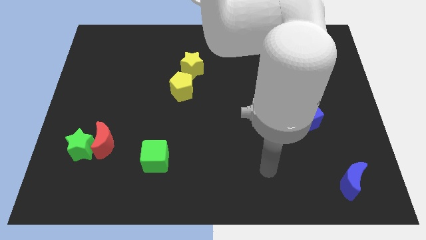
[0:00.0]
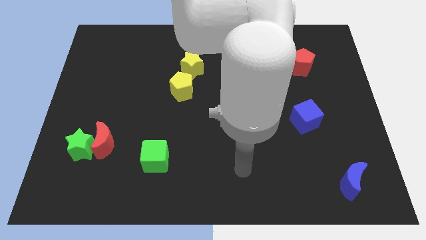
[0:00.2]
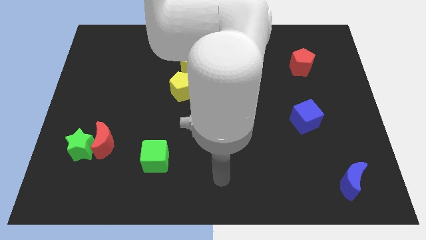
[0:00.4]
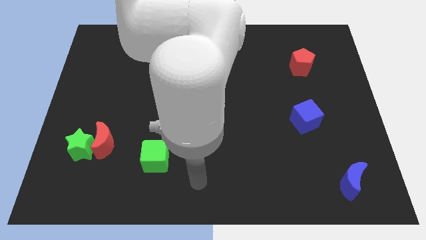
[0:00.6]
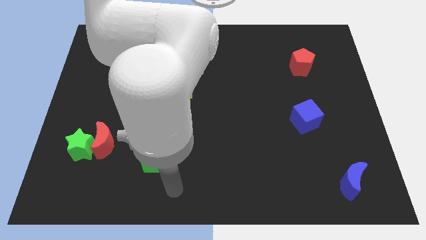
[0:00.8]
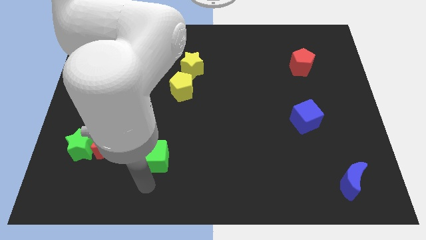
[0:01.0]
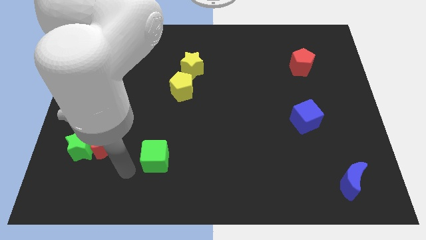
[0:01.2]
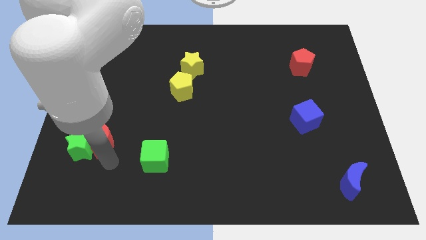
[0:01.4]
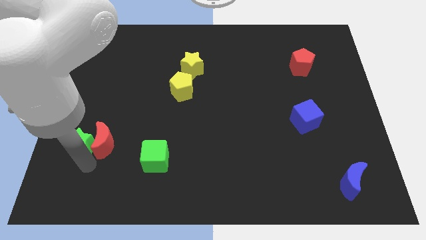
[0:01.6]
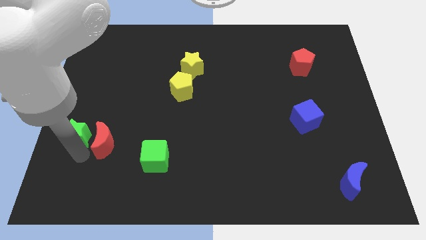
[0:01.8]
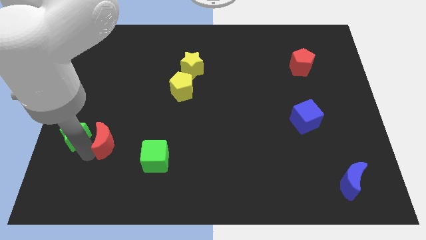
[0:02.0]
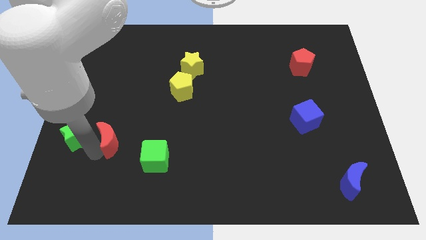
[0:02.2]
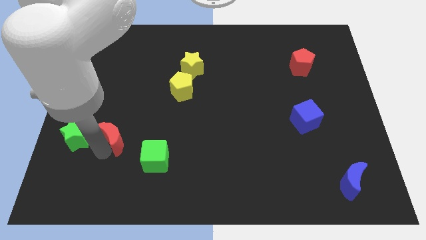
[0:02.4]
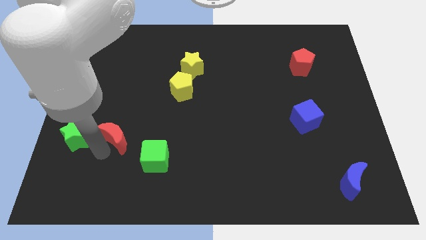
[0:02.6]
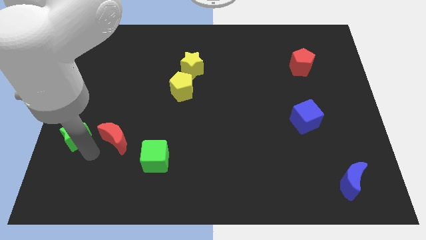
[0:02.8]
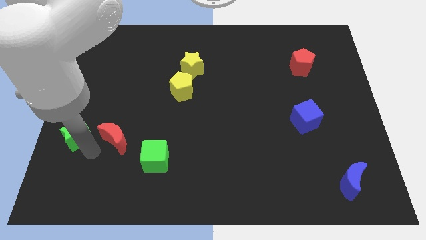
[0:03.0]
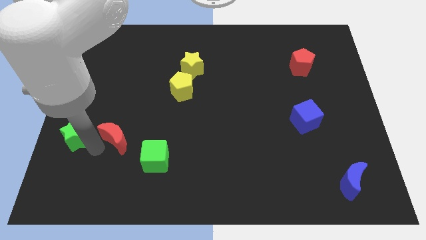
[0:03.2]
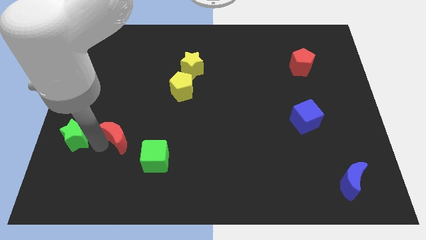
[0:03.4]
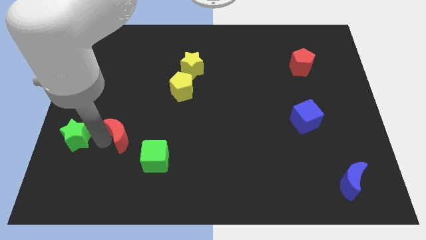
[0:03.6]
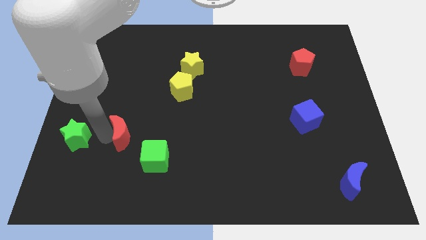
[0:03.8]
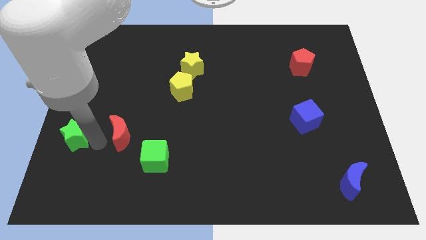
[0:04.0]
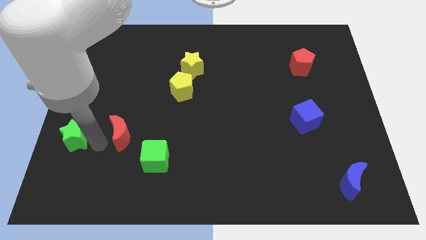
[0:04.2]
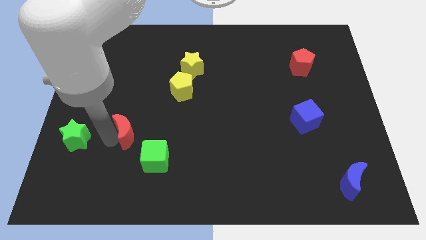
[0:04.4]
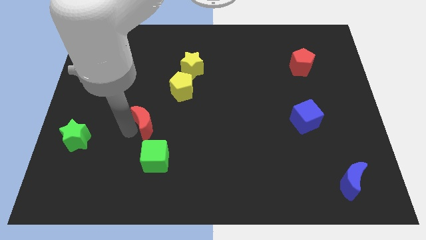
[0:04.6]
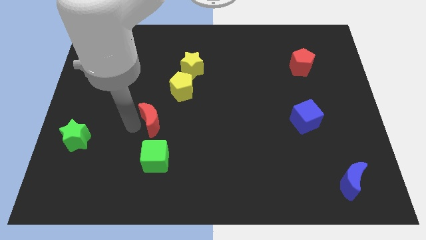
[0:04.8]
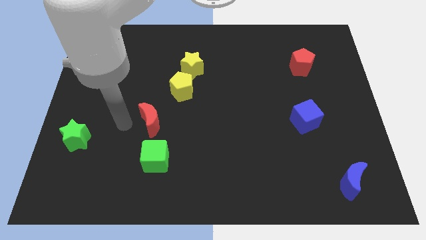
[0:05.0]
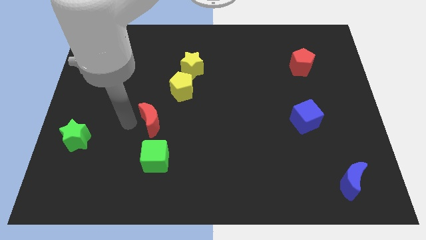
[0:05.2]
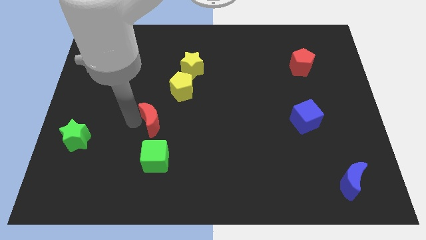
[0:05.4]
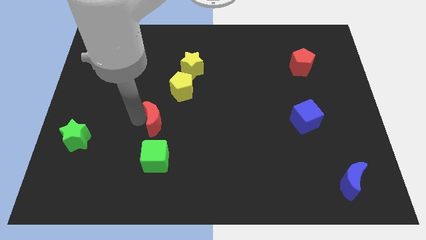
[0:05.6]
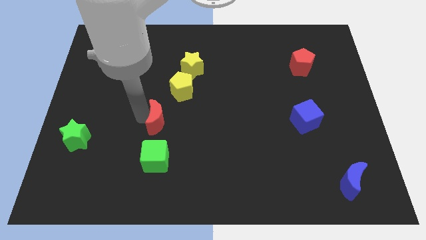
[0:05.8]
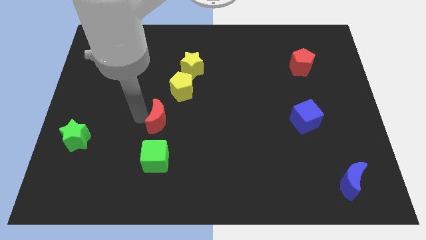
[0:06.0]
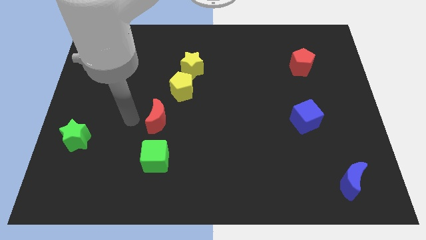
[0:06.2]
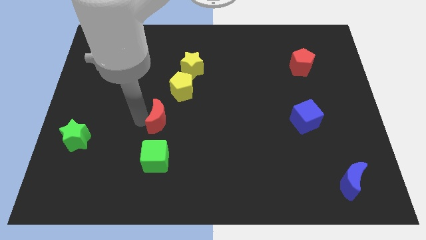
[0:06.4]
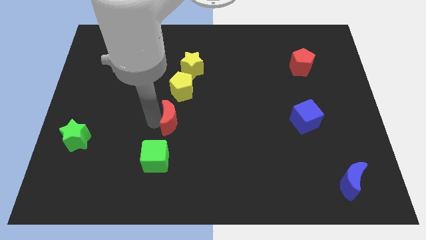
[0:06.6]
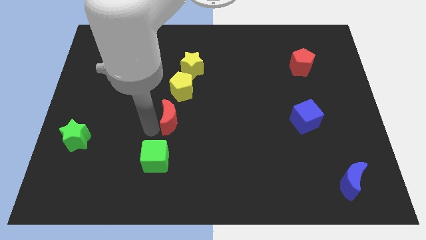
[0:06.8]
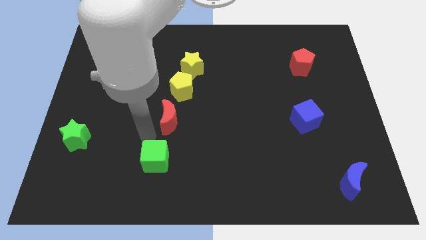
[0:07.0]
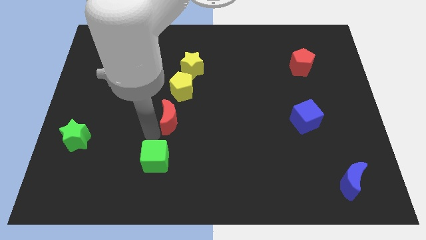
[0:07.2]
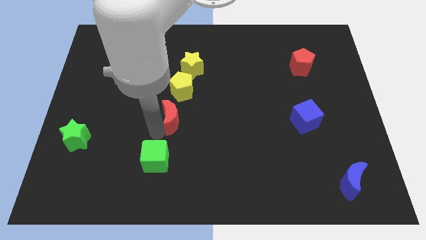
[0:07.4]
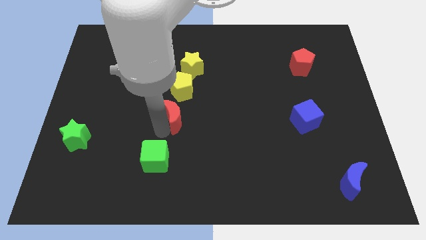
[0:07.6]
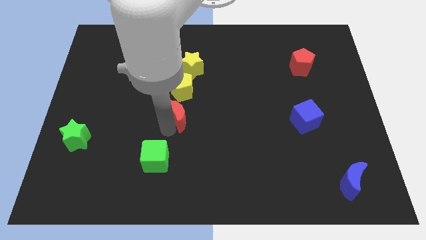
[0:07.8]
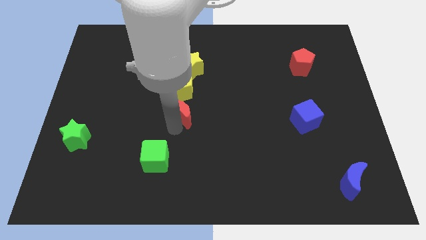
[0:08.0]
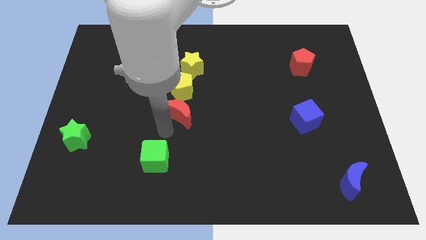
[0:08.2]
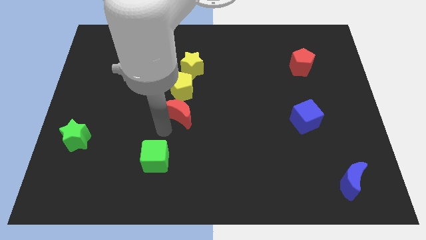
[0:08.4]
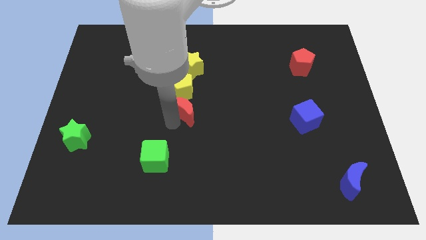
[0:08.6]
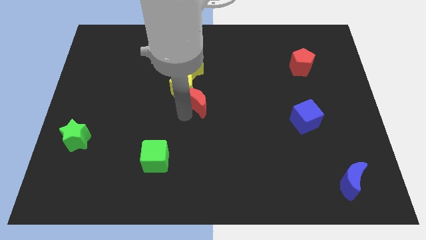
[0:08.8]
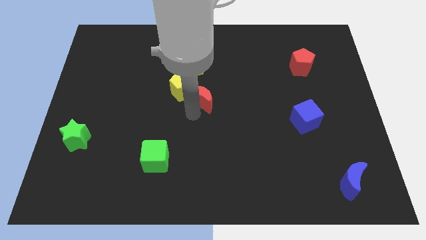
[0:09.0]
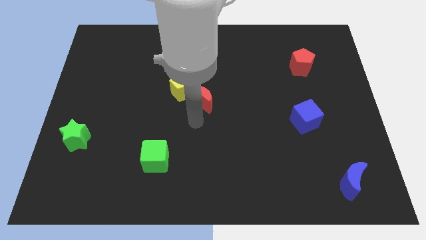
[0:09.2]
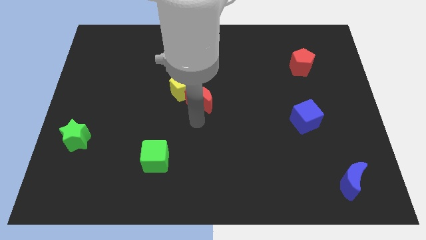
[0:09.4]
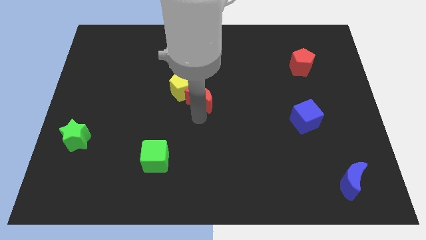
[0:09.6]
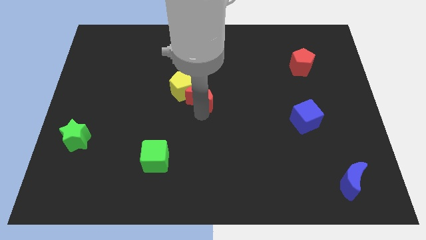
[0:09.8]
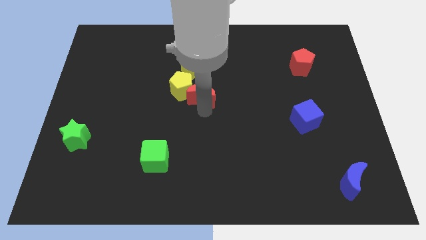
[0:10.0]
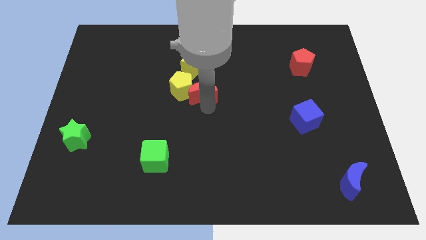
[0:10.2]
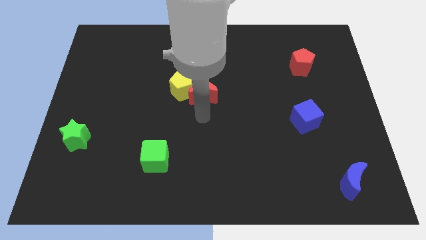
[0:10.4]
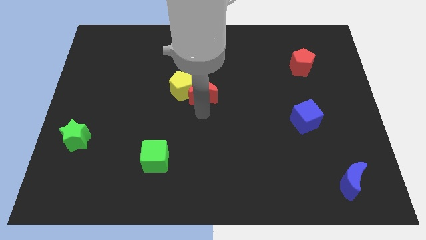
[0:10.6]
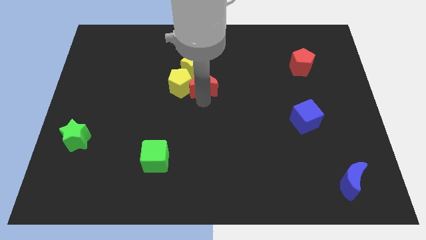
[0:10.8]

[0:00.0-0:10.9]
put the red moon to the top right of the yellow pentagon

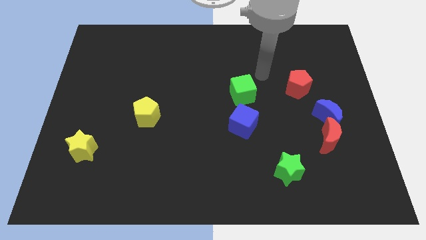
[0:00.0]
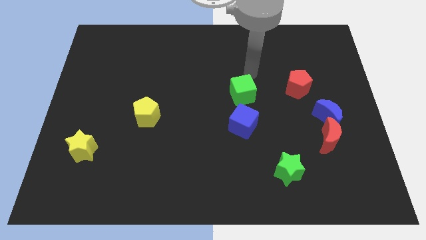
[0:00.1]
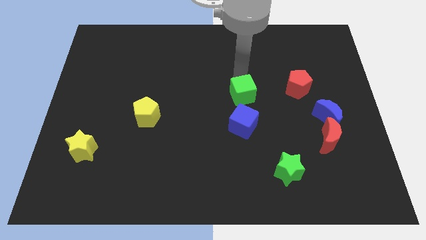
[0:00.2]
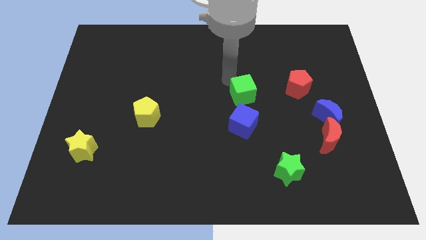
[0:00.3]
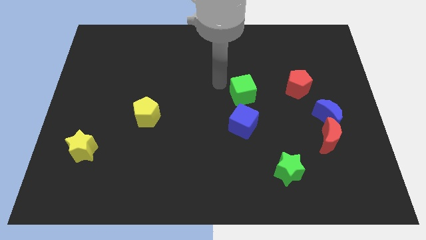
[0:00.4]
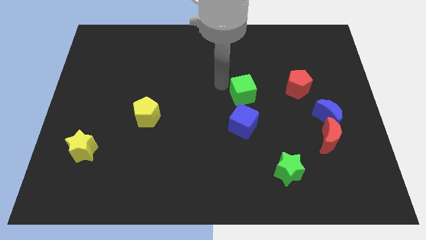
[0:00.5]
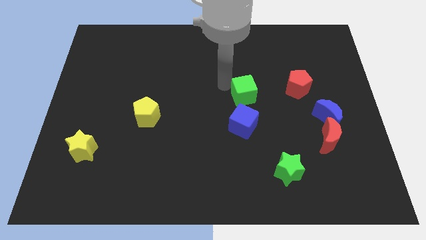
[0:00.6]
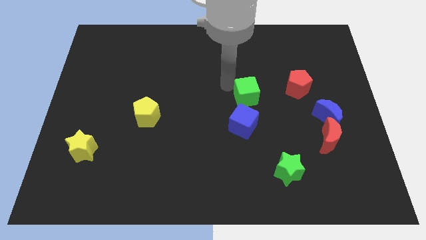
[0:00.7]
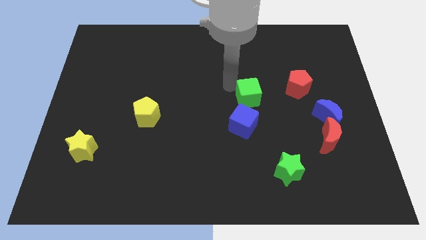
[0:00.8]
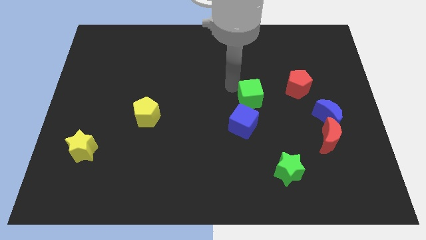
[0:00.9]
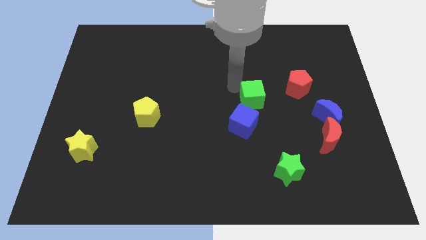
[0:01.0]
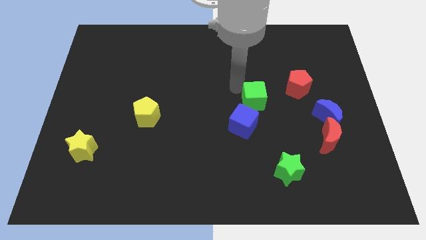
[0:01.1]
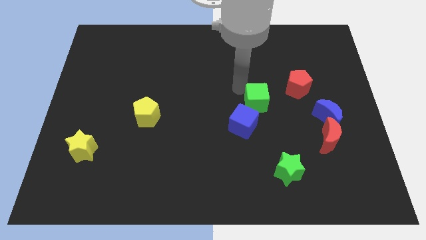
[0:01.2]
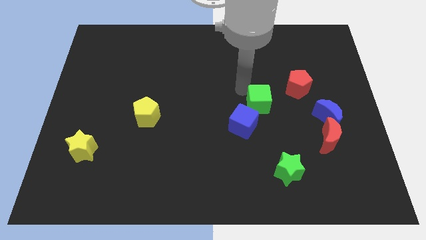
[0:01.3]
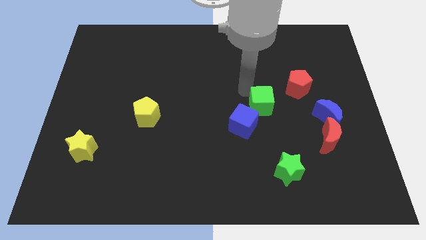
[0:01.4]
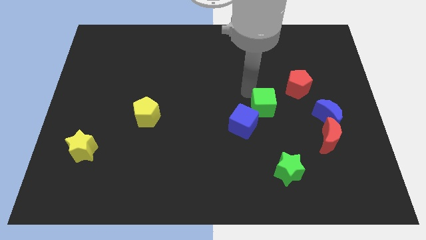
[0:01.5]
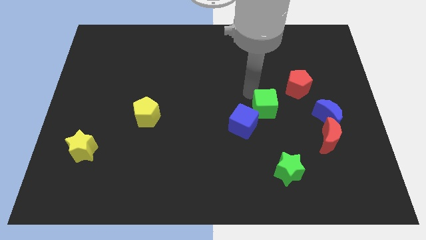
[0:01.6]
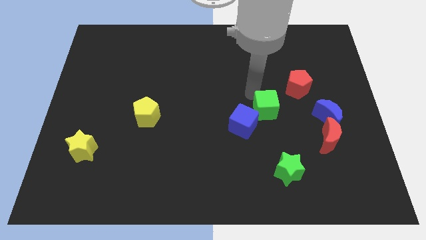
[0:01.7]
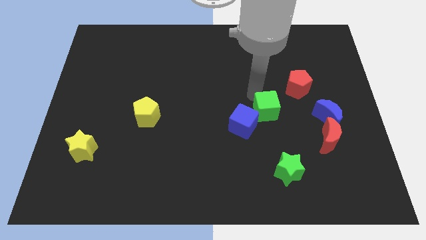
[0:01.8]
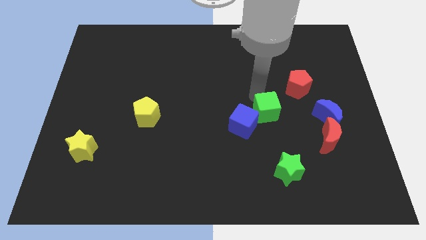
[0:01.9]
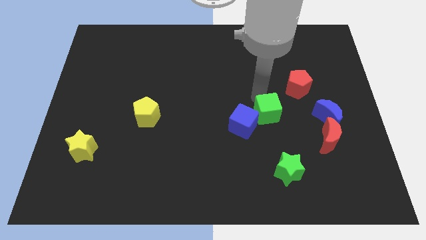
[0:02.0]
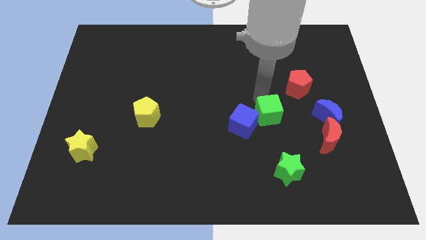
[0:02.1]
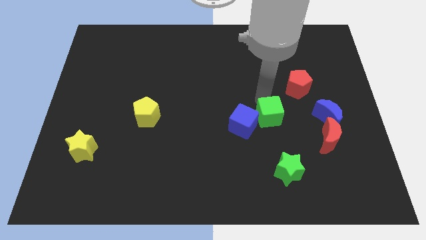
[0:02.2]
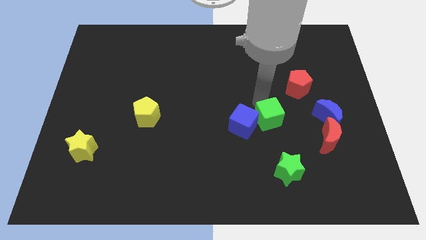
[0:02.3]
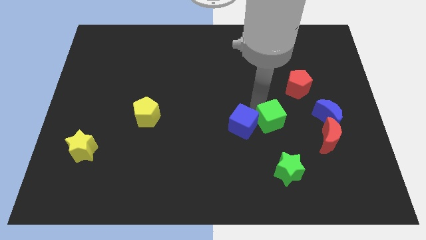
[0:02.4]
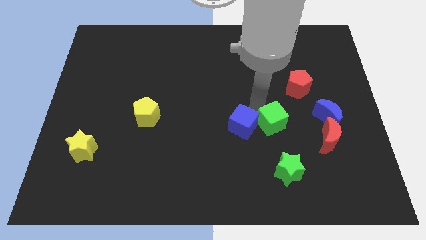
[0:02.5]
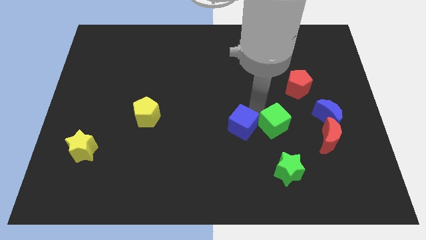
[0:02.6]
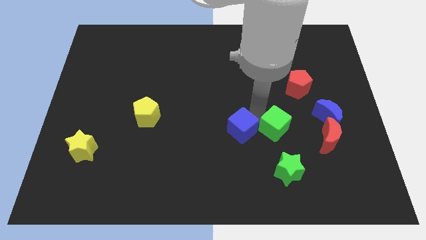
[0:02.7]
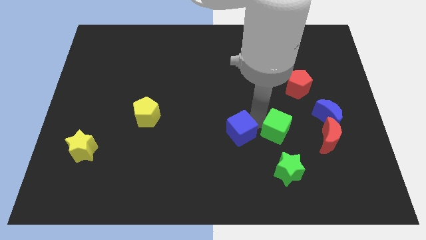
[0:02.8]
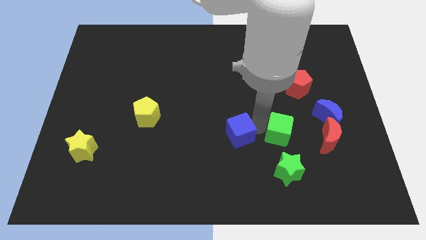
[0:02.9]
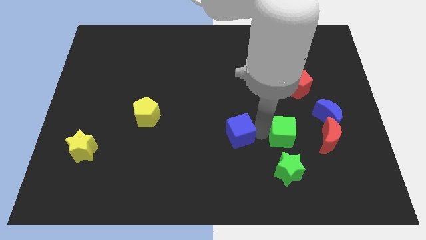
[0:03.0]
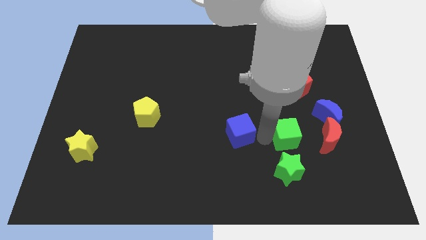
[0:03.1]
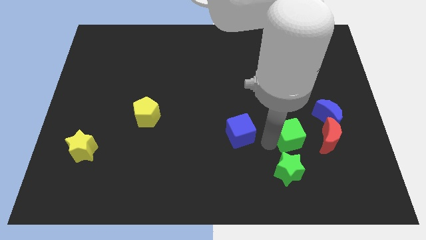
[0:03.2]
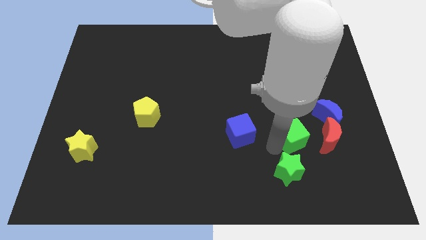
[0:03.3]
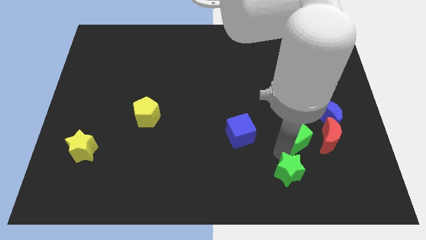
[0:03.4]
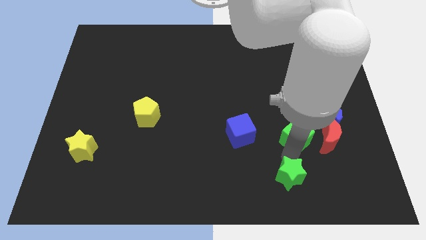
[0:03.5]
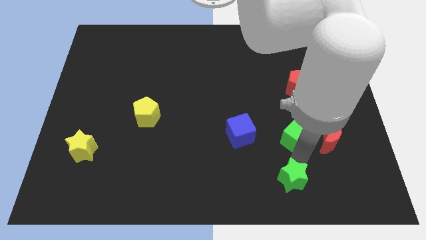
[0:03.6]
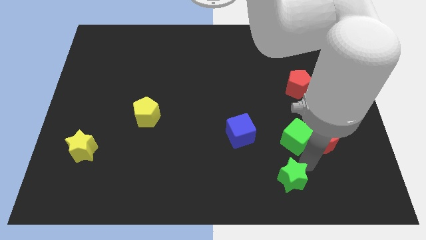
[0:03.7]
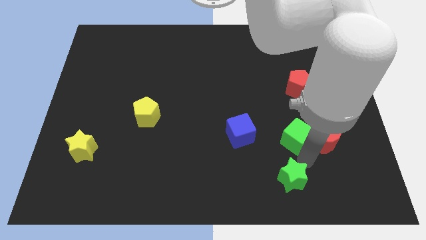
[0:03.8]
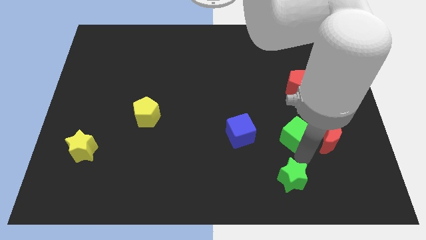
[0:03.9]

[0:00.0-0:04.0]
move the green cube to the top left of the red moon
